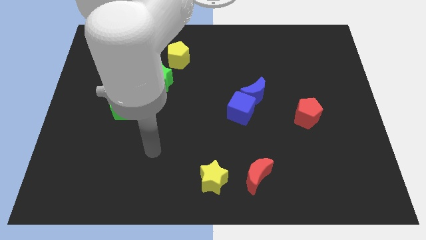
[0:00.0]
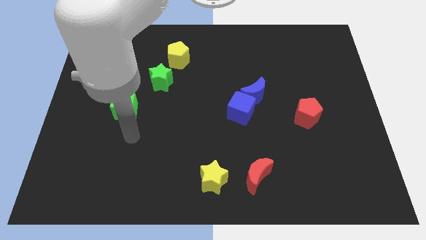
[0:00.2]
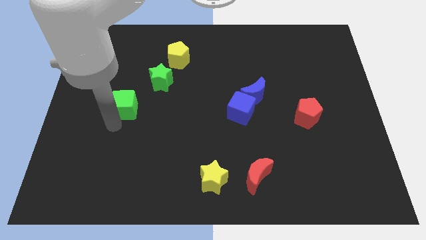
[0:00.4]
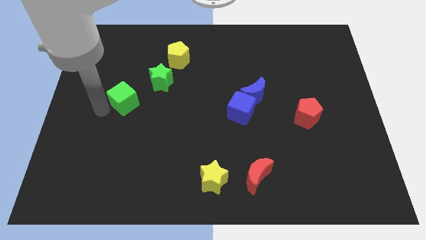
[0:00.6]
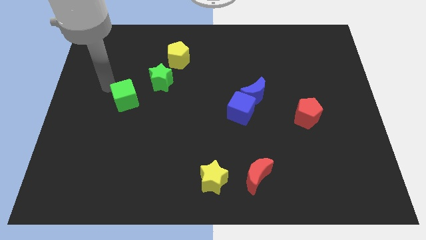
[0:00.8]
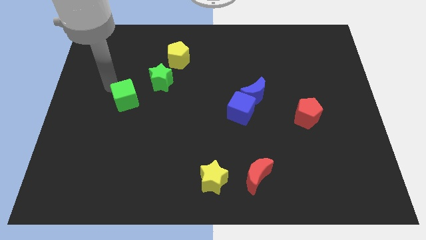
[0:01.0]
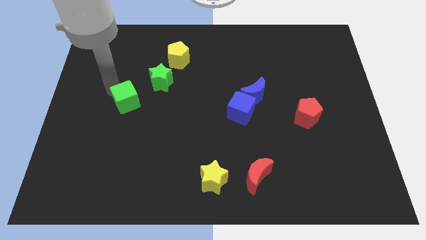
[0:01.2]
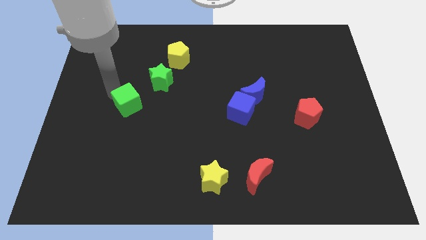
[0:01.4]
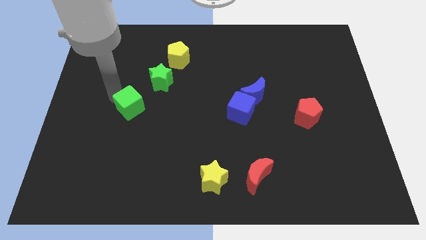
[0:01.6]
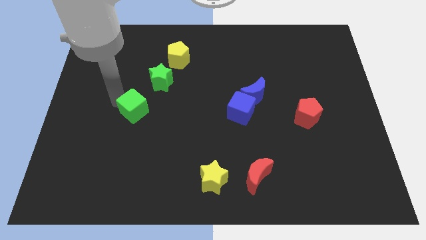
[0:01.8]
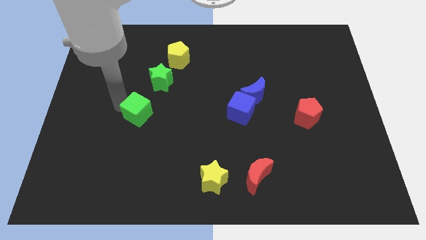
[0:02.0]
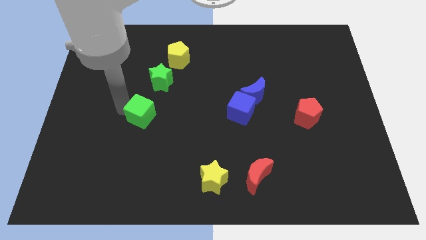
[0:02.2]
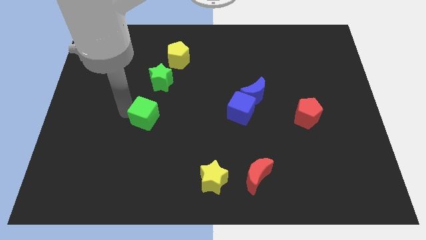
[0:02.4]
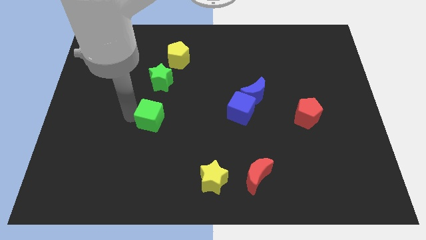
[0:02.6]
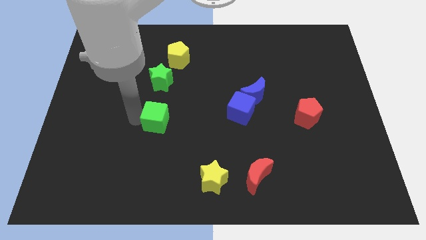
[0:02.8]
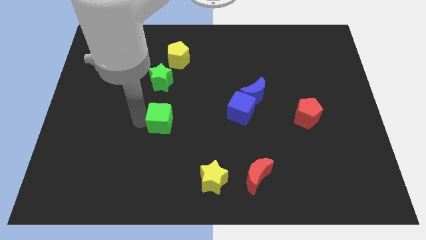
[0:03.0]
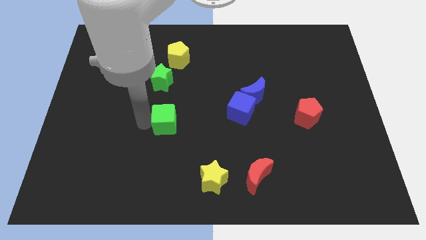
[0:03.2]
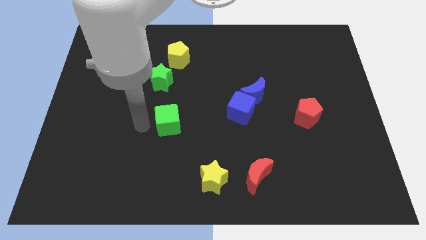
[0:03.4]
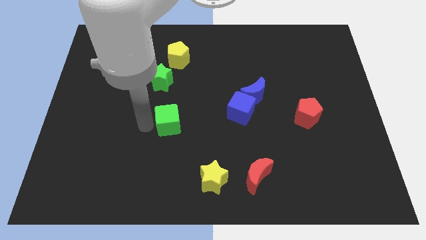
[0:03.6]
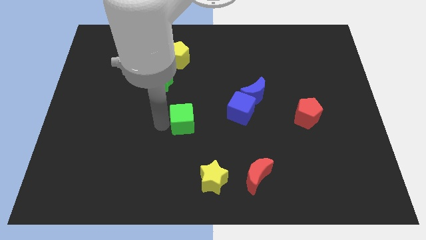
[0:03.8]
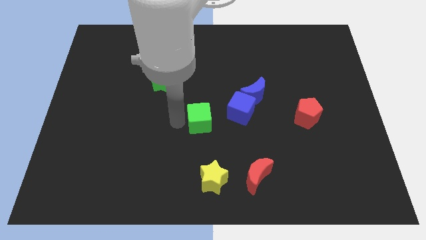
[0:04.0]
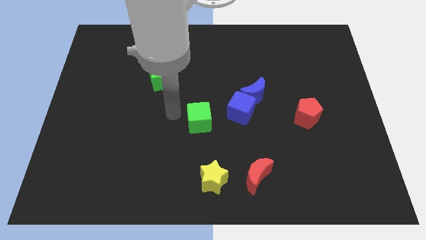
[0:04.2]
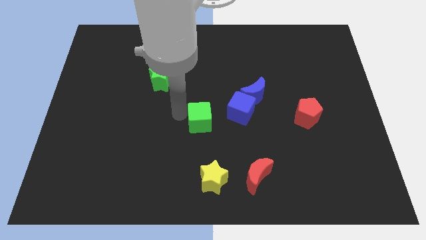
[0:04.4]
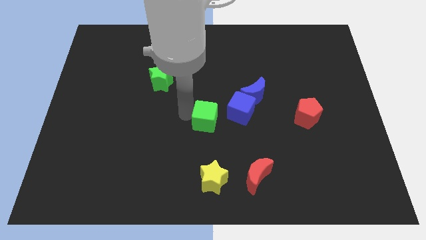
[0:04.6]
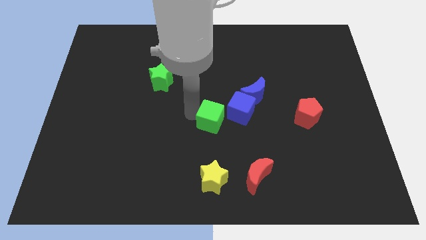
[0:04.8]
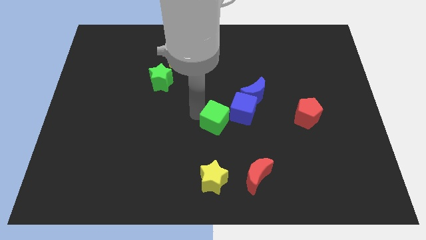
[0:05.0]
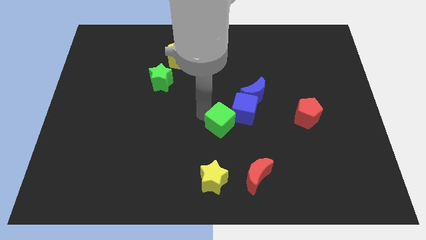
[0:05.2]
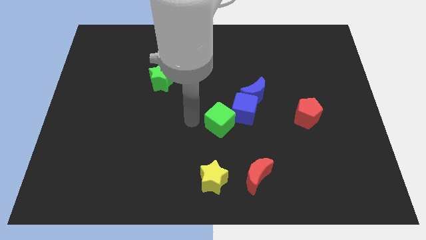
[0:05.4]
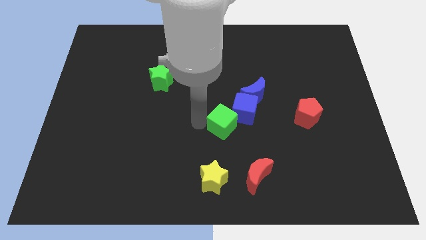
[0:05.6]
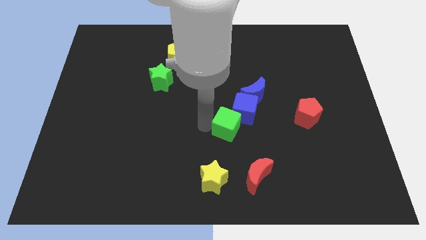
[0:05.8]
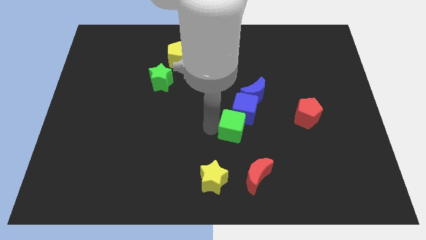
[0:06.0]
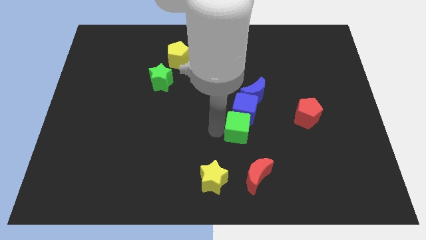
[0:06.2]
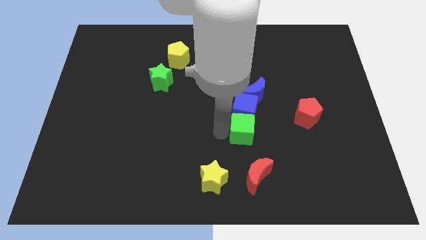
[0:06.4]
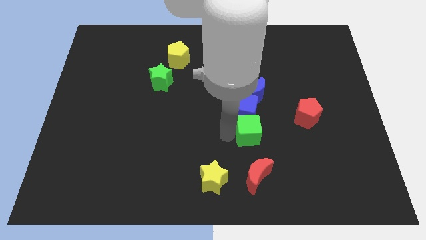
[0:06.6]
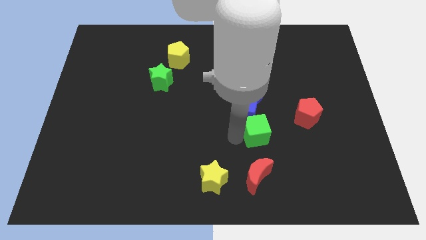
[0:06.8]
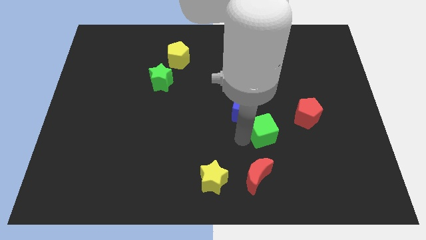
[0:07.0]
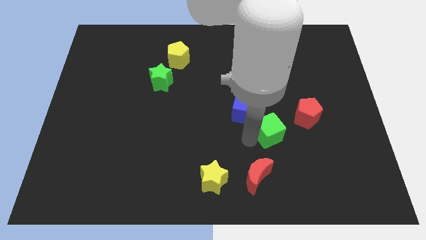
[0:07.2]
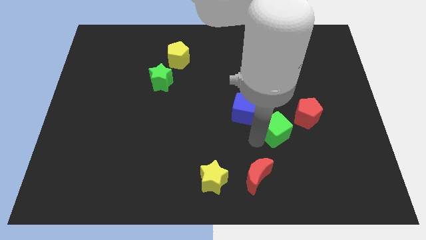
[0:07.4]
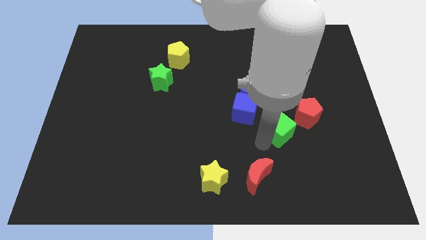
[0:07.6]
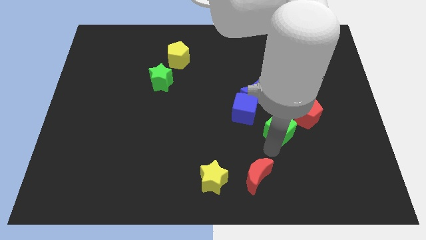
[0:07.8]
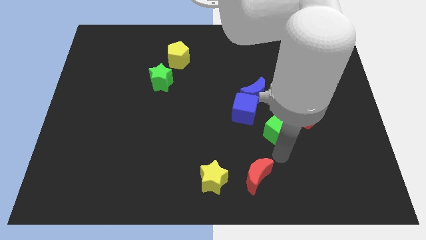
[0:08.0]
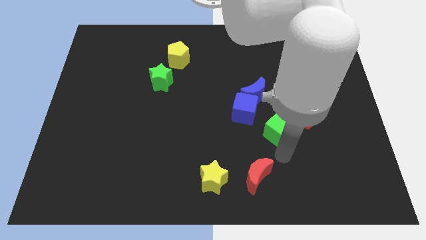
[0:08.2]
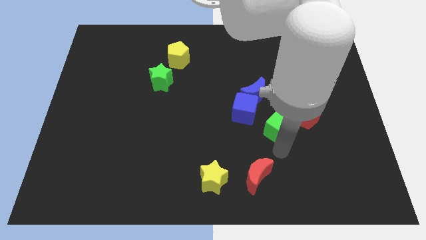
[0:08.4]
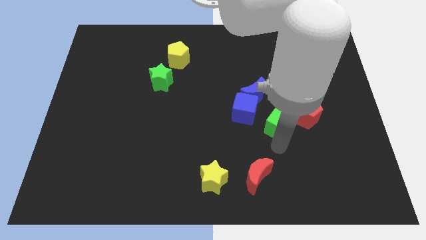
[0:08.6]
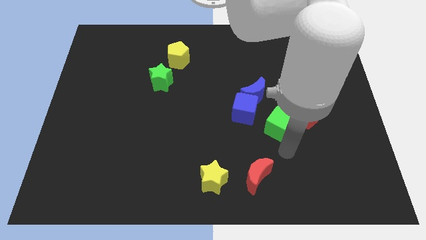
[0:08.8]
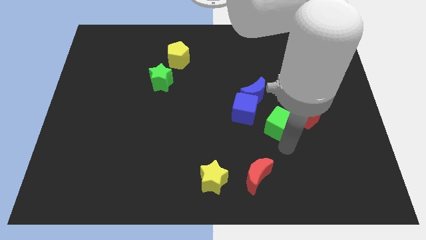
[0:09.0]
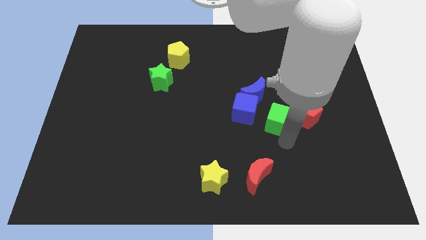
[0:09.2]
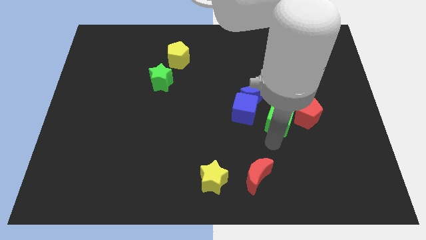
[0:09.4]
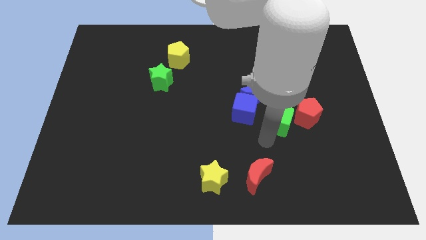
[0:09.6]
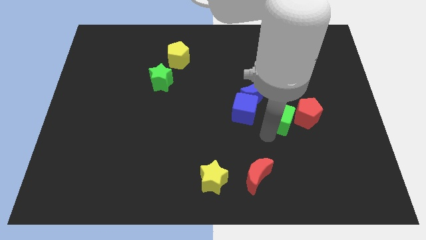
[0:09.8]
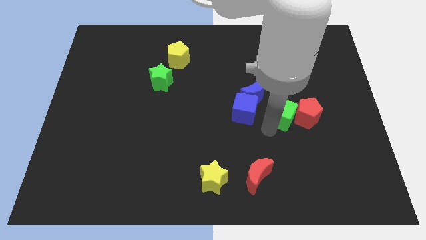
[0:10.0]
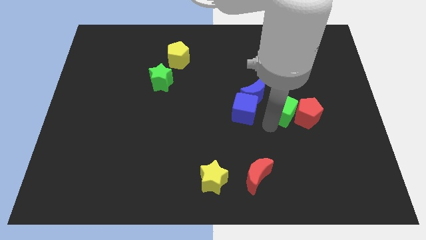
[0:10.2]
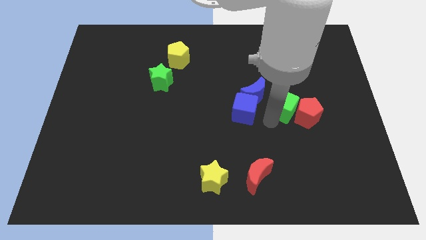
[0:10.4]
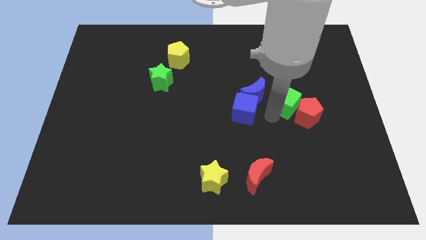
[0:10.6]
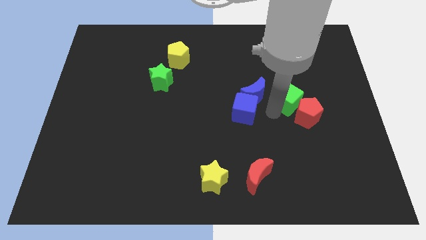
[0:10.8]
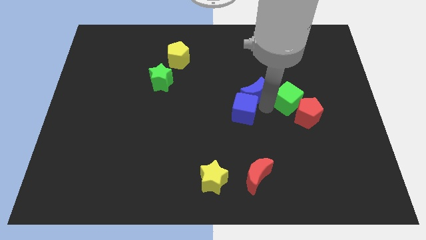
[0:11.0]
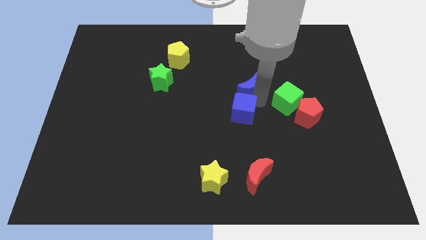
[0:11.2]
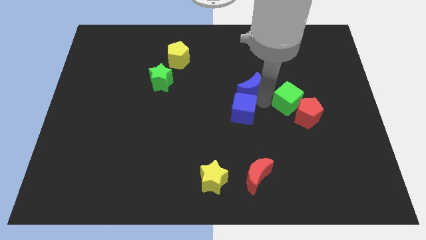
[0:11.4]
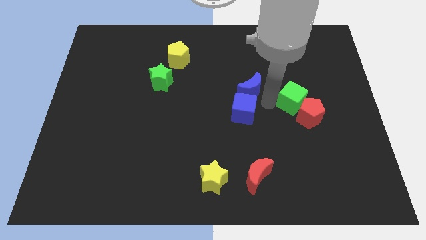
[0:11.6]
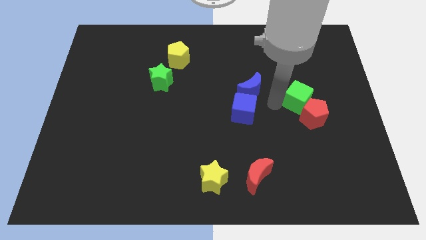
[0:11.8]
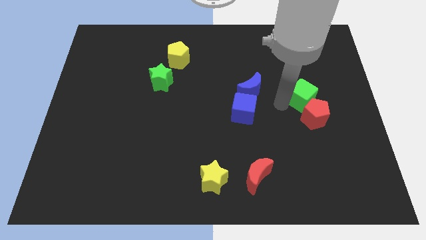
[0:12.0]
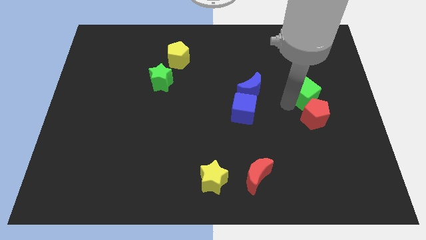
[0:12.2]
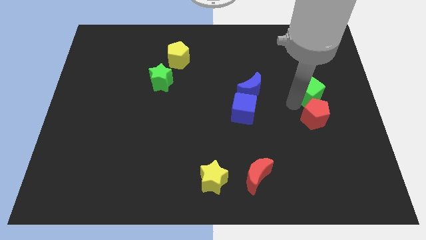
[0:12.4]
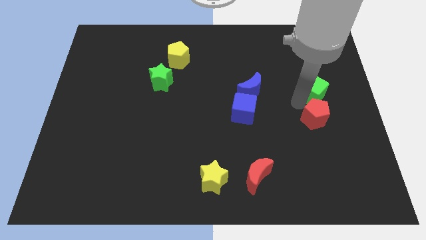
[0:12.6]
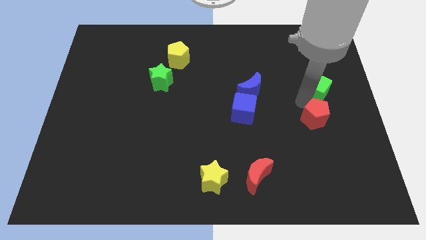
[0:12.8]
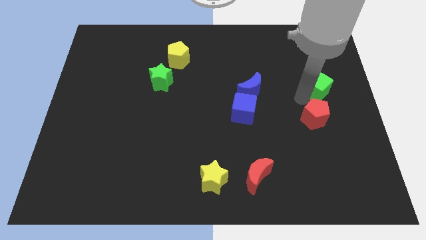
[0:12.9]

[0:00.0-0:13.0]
push the green cube to the right side
